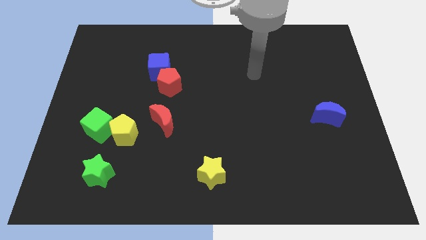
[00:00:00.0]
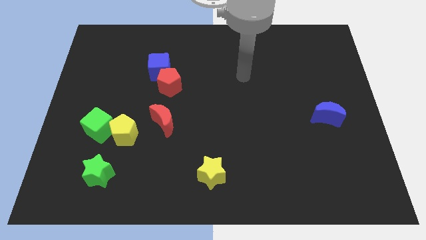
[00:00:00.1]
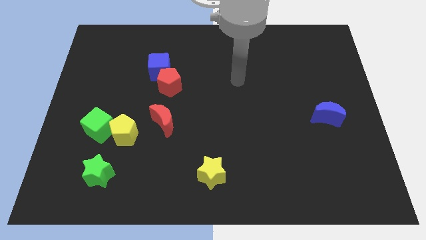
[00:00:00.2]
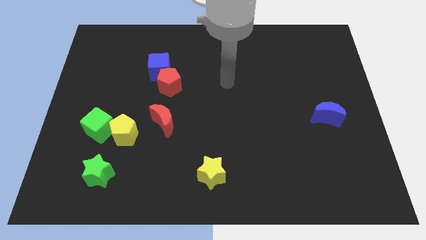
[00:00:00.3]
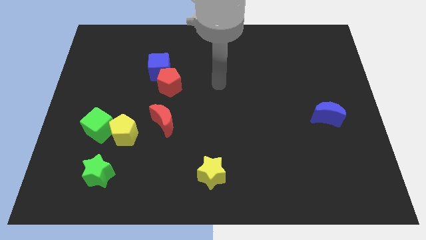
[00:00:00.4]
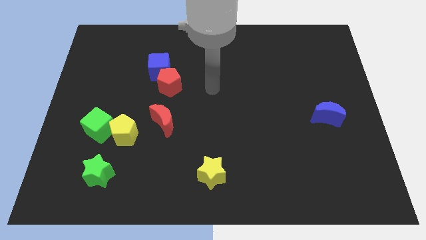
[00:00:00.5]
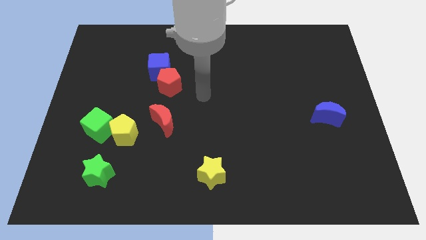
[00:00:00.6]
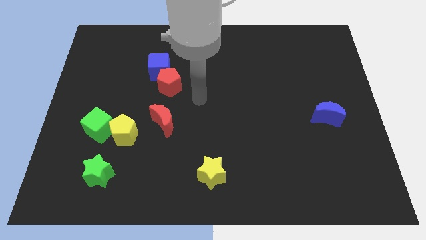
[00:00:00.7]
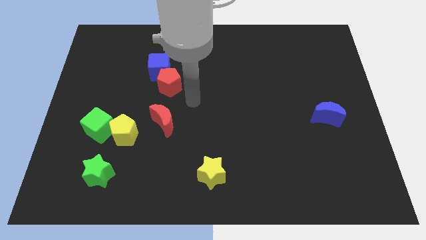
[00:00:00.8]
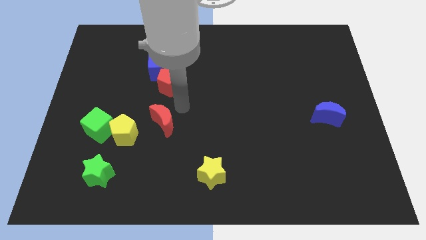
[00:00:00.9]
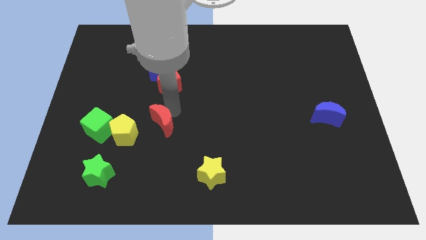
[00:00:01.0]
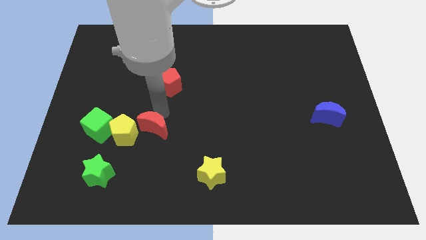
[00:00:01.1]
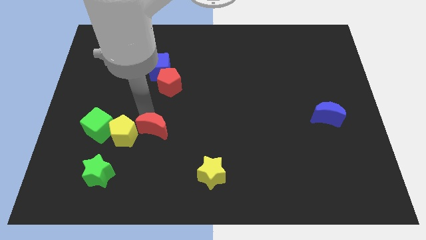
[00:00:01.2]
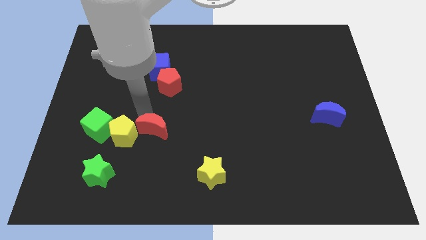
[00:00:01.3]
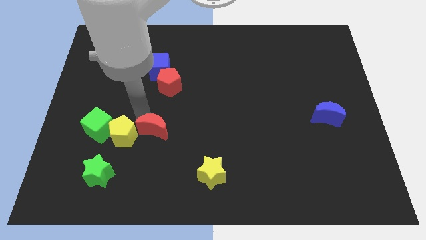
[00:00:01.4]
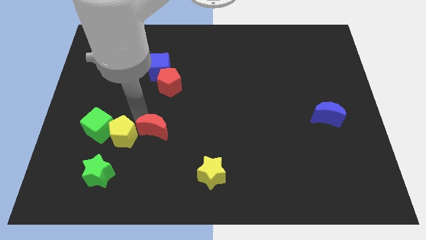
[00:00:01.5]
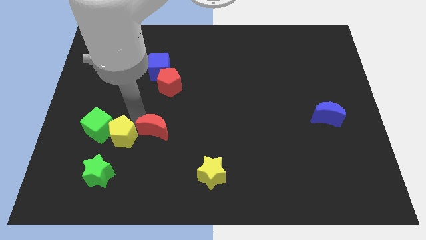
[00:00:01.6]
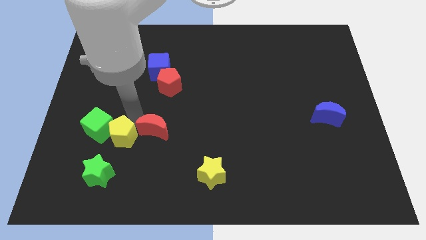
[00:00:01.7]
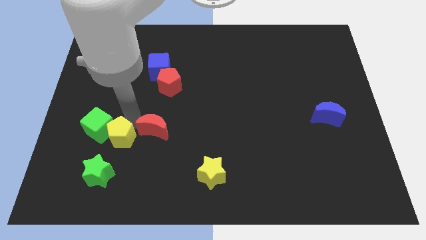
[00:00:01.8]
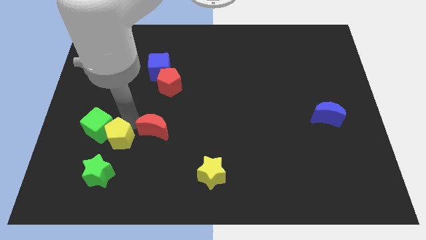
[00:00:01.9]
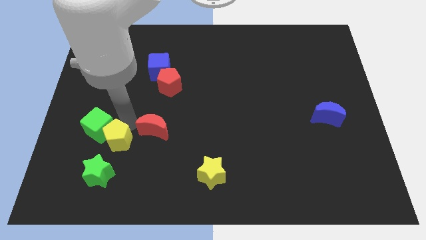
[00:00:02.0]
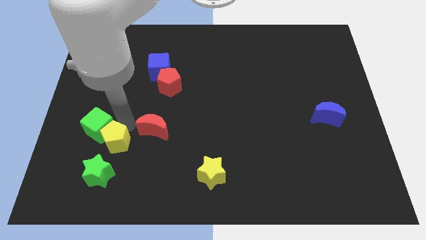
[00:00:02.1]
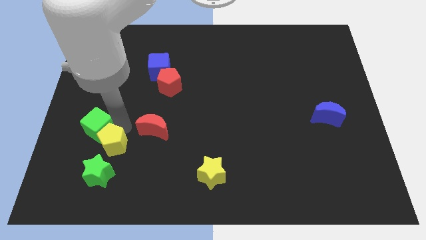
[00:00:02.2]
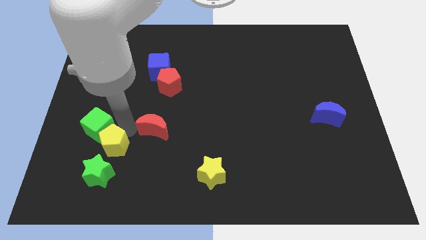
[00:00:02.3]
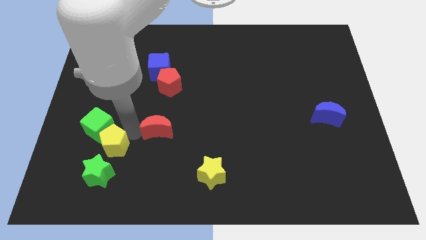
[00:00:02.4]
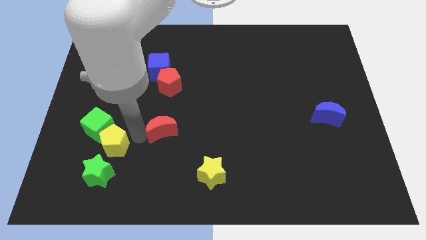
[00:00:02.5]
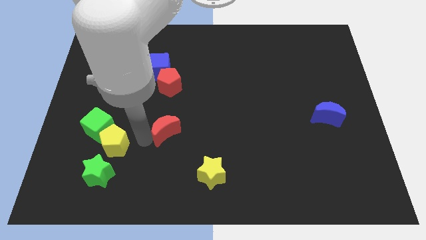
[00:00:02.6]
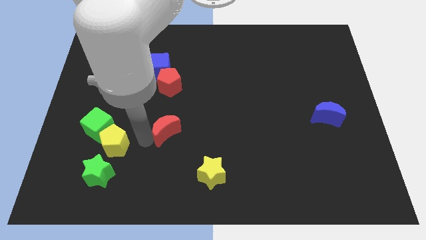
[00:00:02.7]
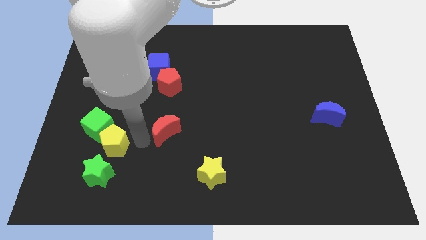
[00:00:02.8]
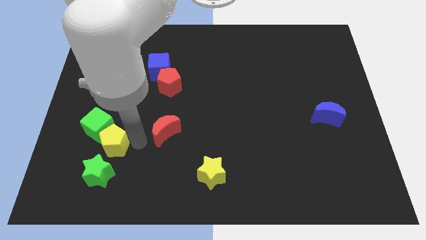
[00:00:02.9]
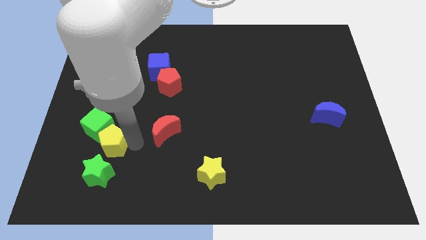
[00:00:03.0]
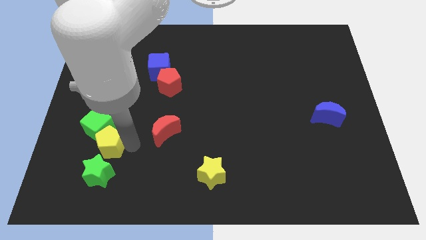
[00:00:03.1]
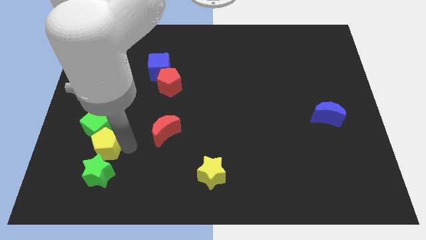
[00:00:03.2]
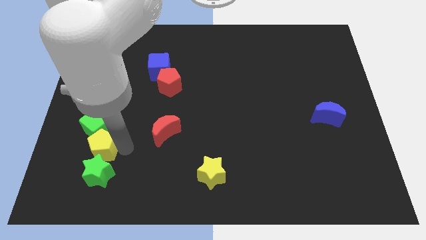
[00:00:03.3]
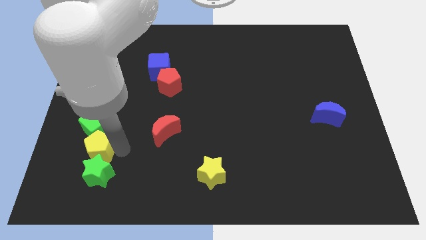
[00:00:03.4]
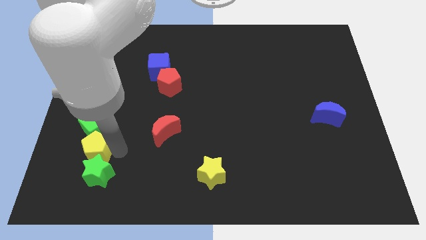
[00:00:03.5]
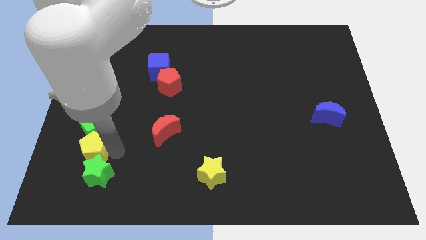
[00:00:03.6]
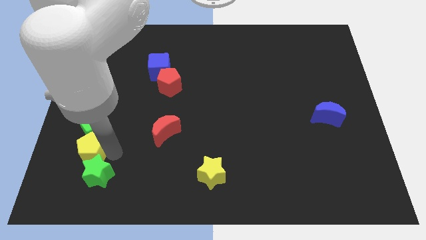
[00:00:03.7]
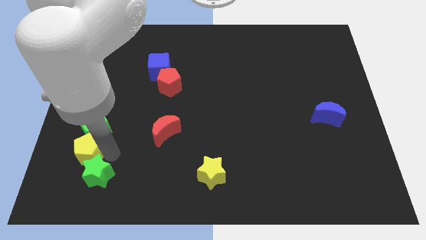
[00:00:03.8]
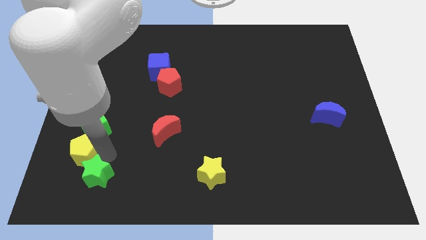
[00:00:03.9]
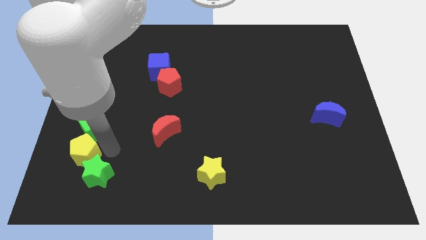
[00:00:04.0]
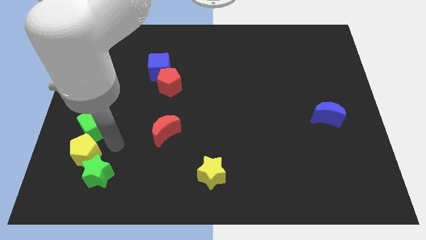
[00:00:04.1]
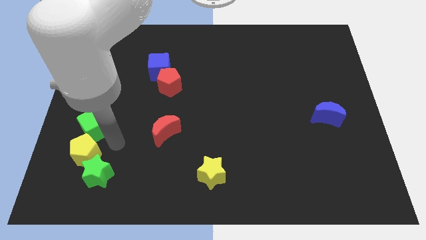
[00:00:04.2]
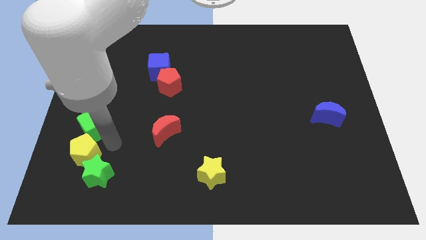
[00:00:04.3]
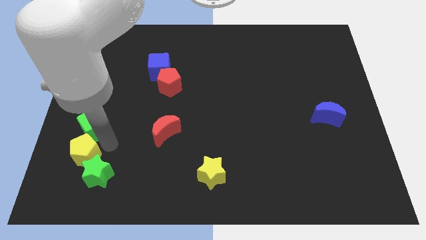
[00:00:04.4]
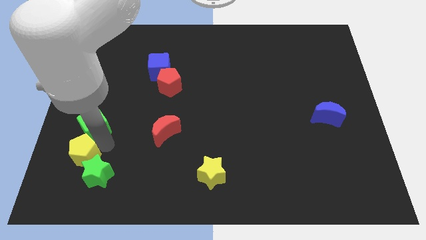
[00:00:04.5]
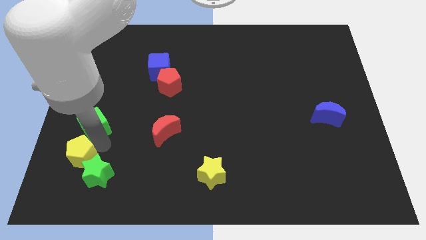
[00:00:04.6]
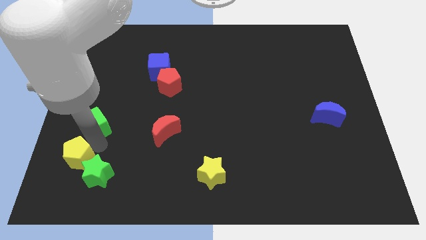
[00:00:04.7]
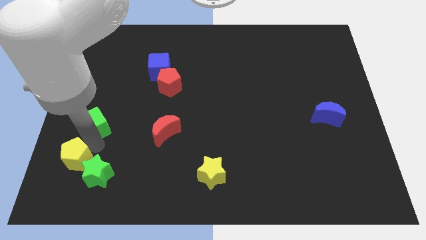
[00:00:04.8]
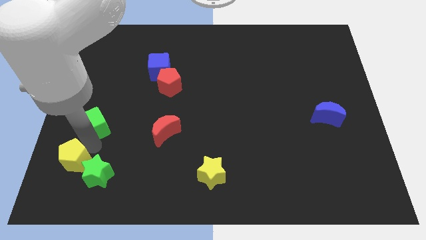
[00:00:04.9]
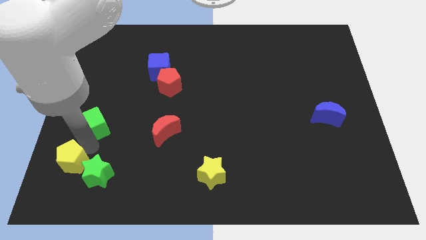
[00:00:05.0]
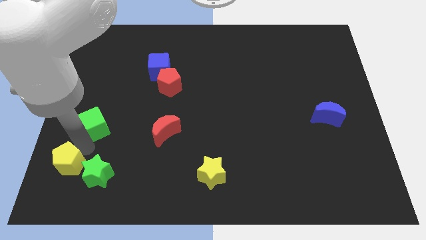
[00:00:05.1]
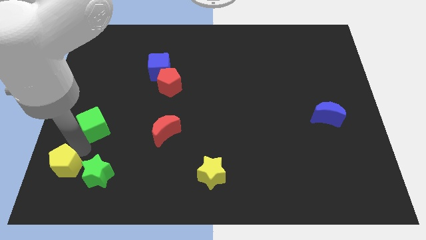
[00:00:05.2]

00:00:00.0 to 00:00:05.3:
slide the yellow pentagon to the bottom left

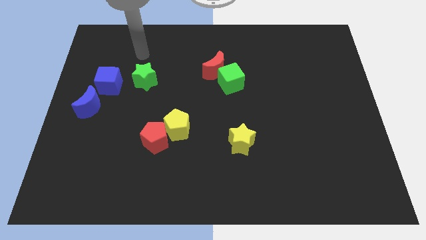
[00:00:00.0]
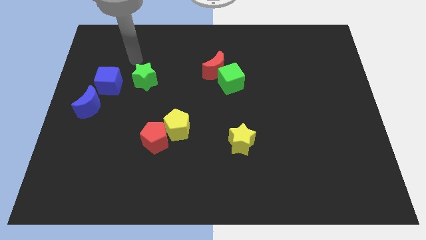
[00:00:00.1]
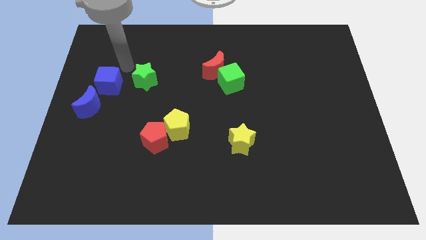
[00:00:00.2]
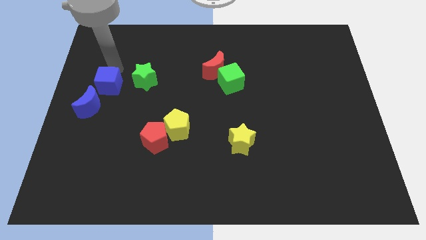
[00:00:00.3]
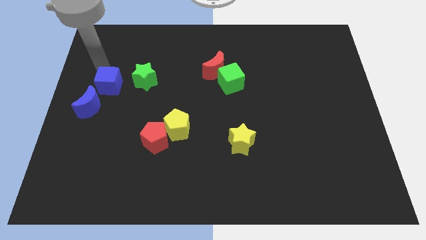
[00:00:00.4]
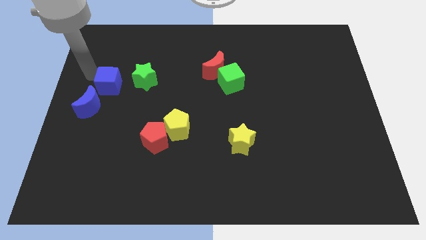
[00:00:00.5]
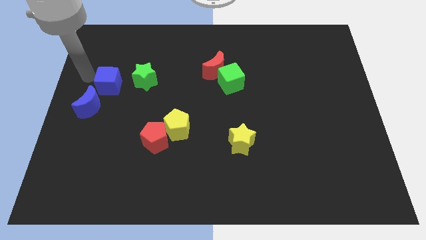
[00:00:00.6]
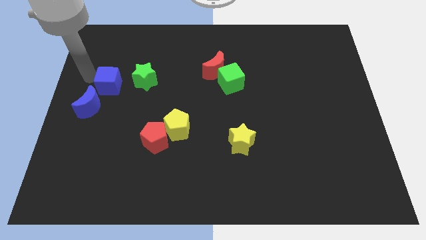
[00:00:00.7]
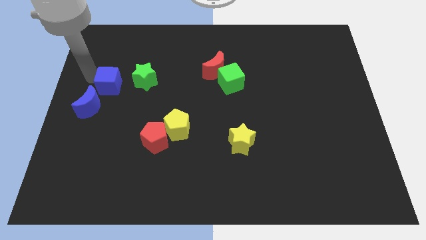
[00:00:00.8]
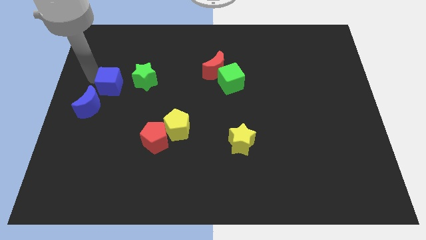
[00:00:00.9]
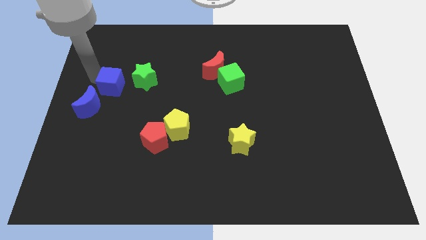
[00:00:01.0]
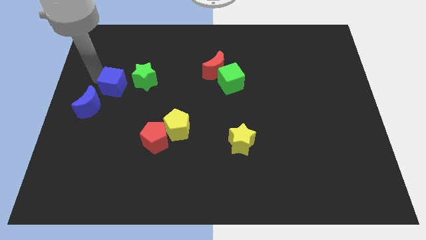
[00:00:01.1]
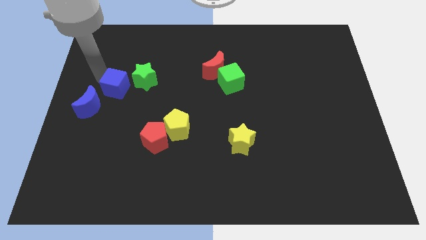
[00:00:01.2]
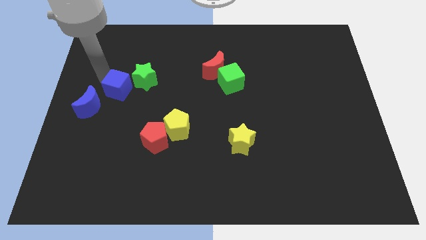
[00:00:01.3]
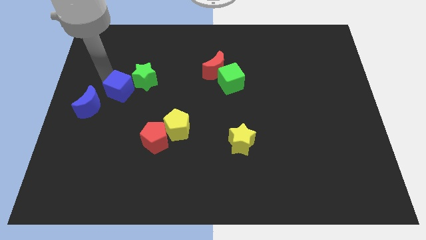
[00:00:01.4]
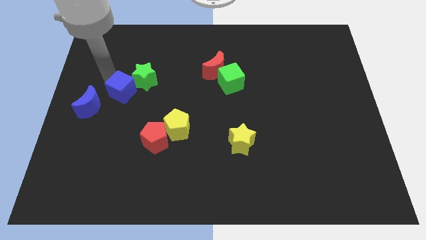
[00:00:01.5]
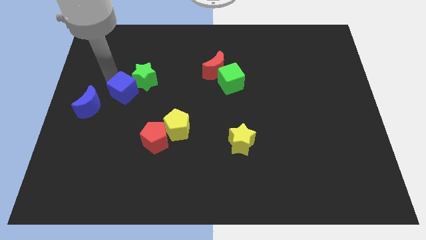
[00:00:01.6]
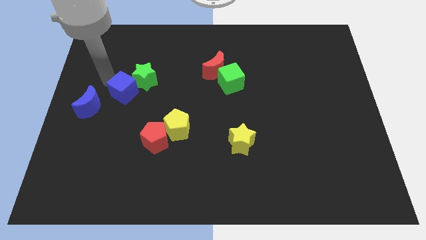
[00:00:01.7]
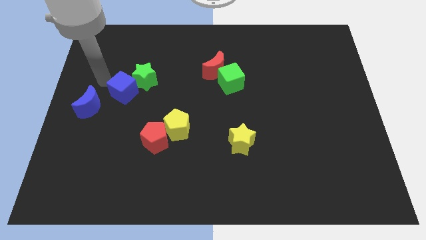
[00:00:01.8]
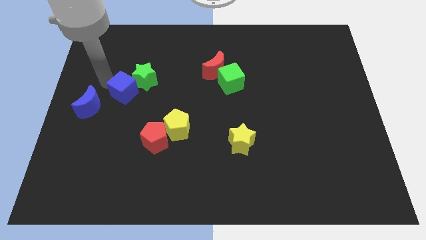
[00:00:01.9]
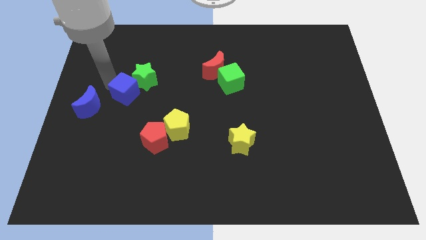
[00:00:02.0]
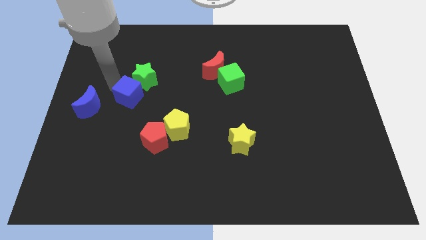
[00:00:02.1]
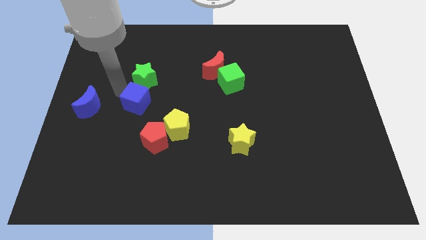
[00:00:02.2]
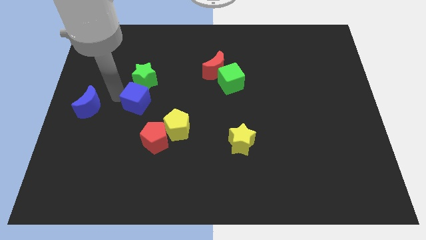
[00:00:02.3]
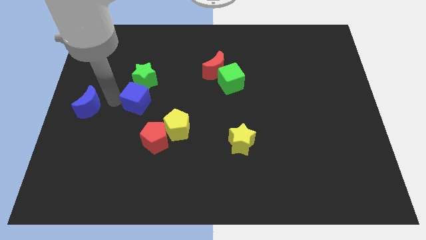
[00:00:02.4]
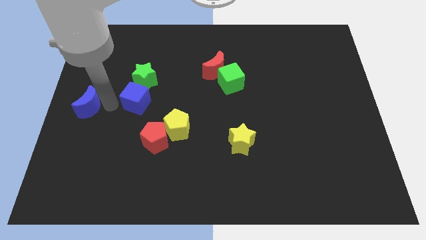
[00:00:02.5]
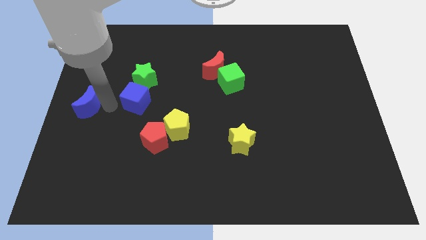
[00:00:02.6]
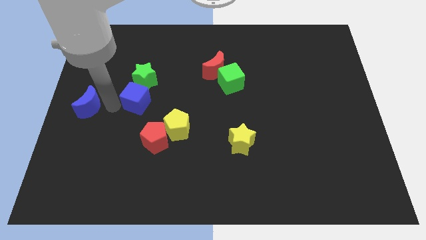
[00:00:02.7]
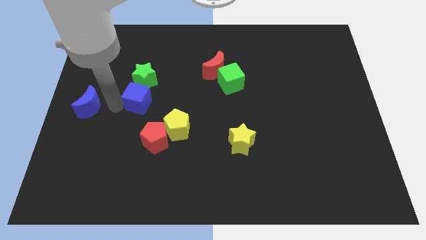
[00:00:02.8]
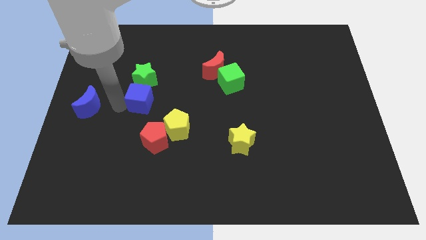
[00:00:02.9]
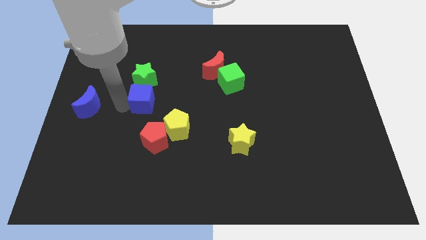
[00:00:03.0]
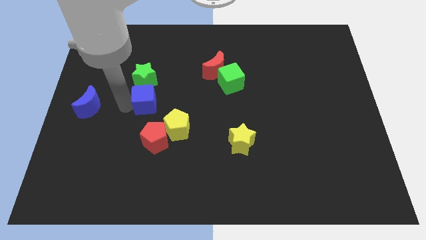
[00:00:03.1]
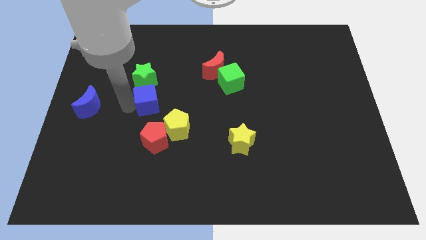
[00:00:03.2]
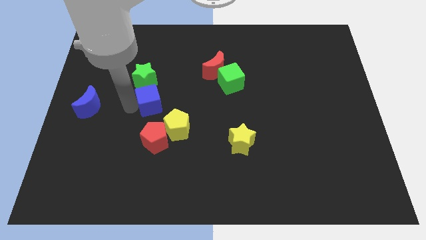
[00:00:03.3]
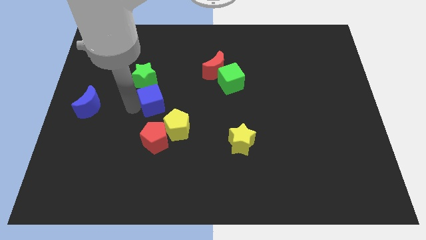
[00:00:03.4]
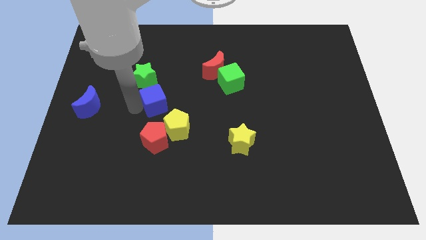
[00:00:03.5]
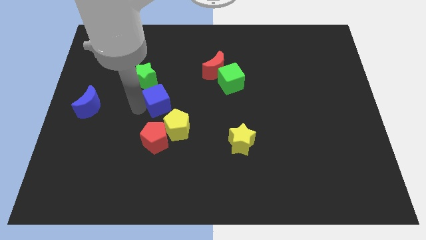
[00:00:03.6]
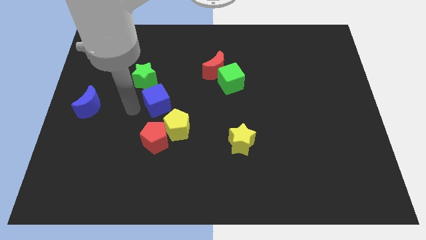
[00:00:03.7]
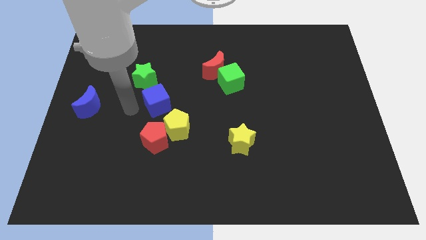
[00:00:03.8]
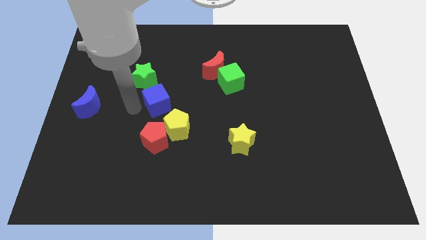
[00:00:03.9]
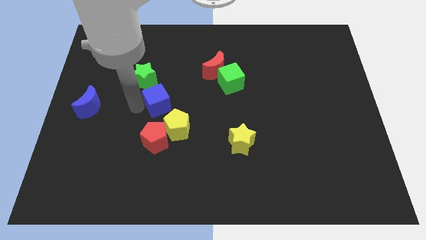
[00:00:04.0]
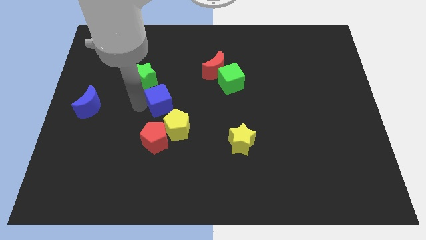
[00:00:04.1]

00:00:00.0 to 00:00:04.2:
push the blue cube to the center
